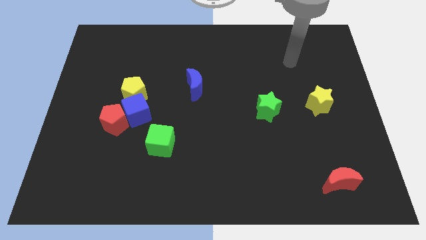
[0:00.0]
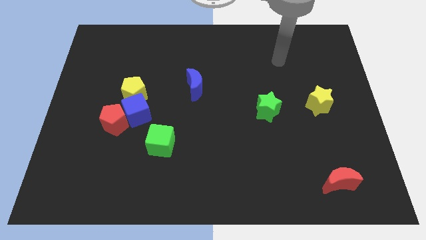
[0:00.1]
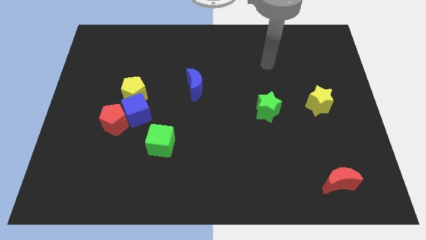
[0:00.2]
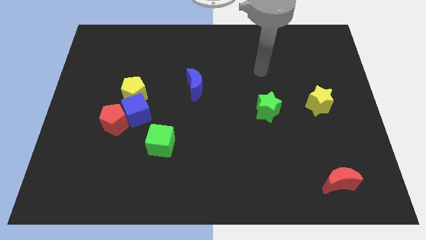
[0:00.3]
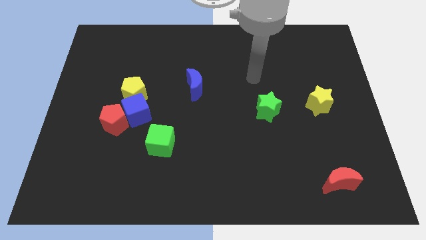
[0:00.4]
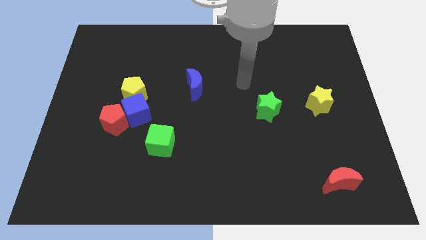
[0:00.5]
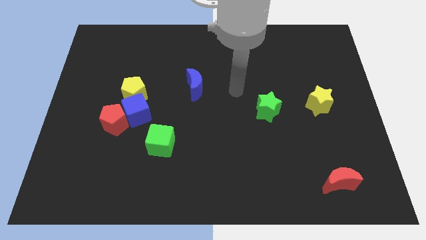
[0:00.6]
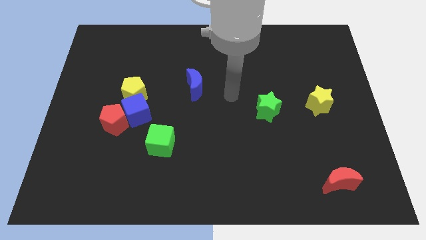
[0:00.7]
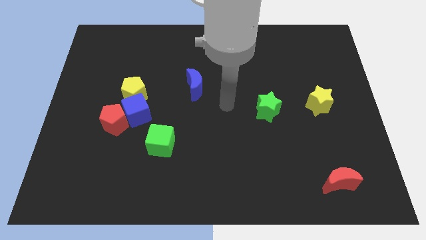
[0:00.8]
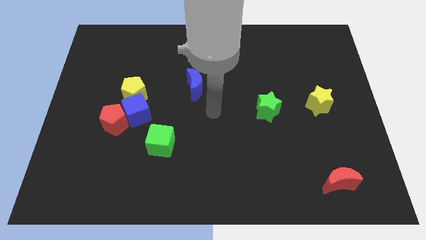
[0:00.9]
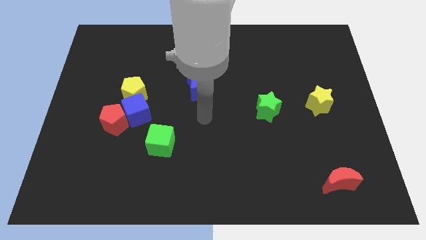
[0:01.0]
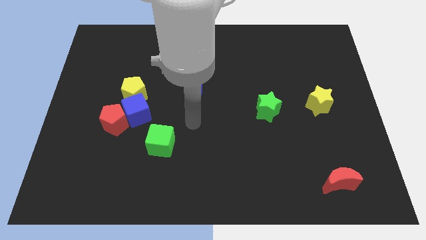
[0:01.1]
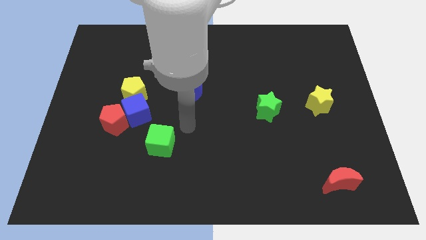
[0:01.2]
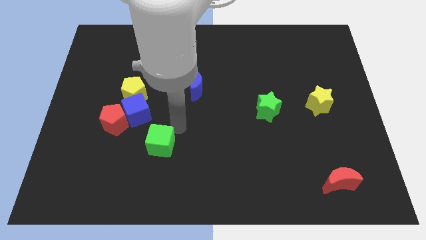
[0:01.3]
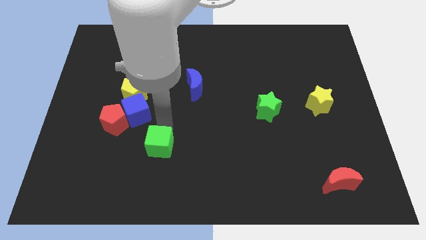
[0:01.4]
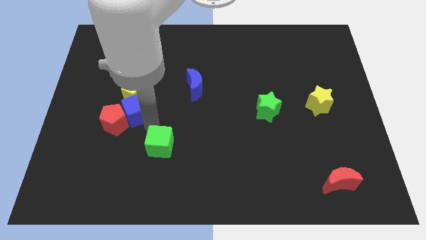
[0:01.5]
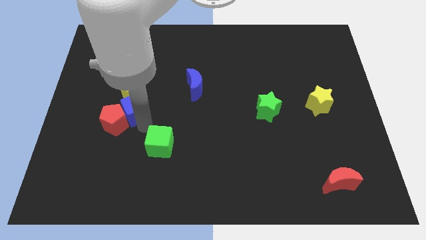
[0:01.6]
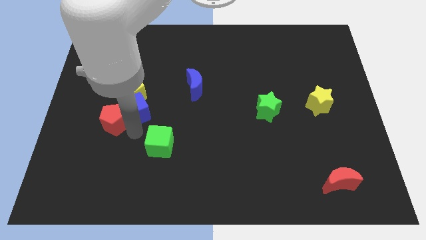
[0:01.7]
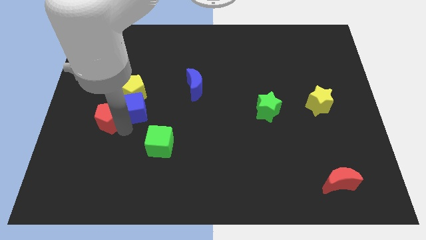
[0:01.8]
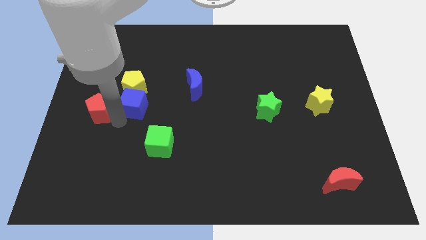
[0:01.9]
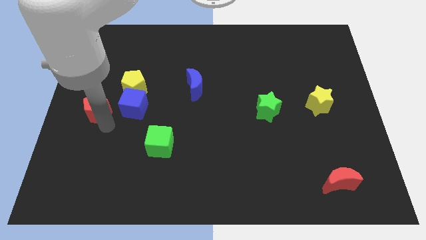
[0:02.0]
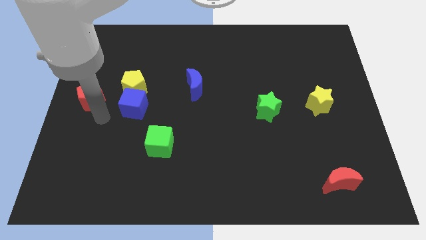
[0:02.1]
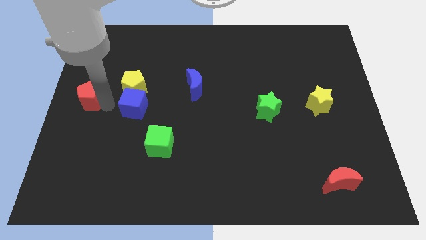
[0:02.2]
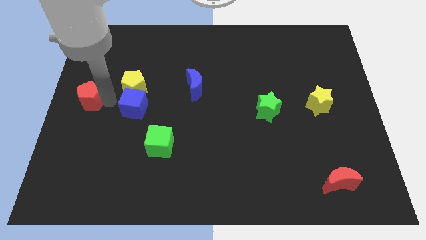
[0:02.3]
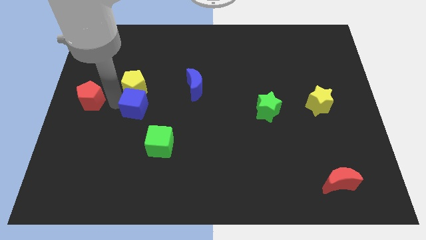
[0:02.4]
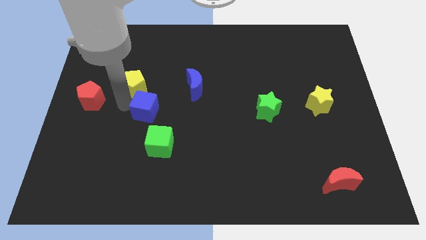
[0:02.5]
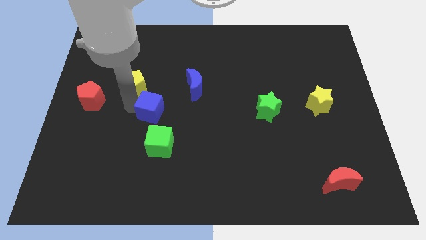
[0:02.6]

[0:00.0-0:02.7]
separate the blue cube from the red pentagon and yellow pentagon

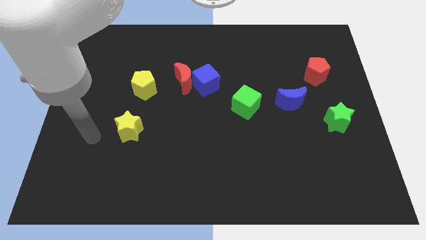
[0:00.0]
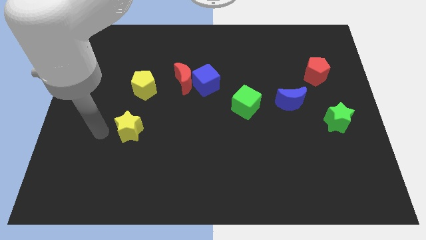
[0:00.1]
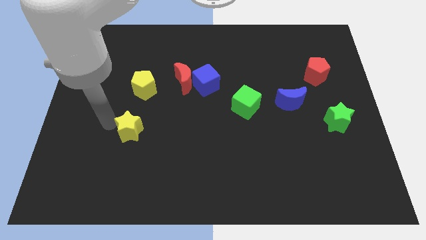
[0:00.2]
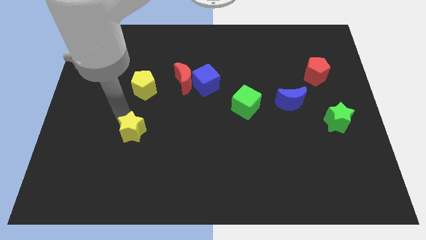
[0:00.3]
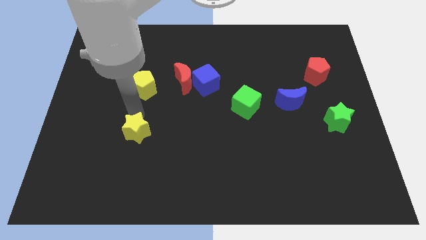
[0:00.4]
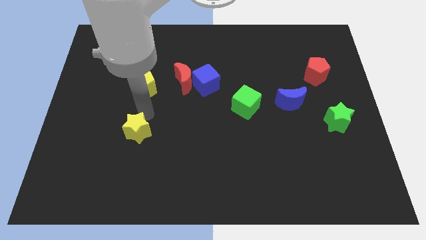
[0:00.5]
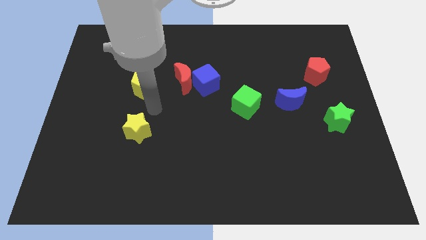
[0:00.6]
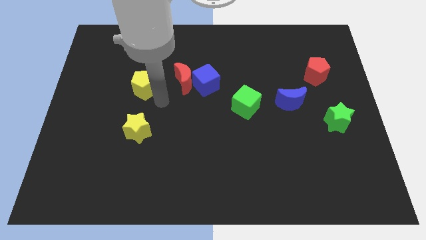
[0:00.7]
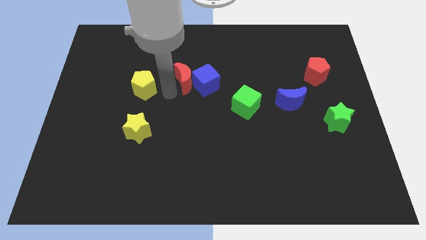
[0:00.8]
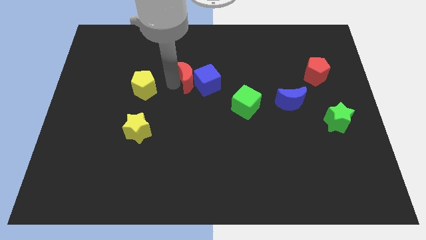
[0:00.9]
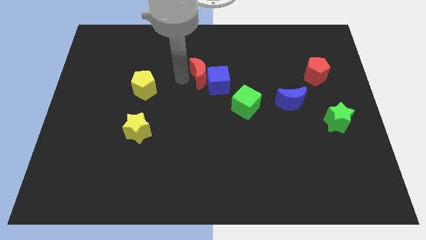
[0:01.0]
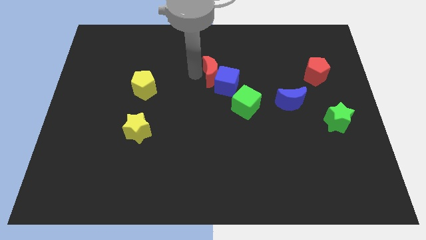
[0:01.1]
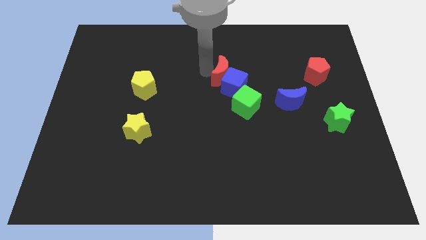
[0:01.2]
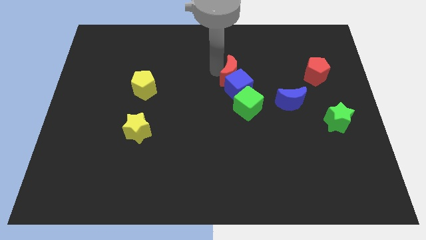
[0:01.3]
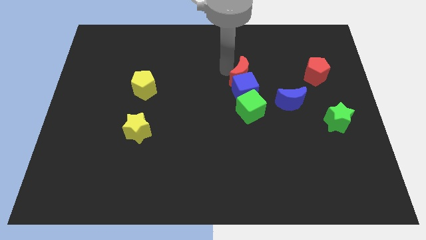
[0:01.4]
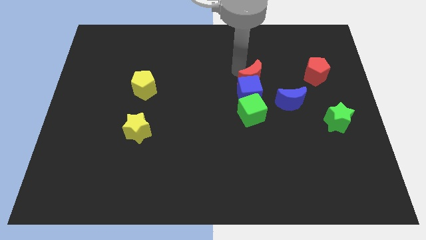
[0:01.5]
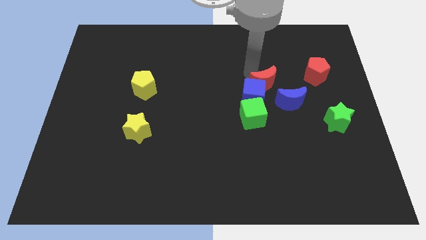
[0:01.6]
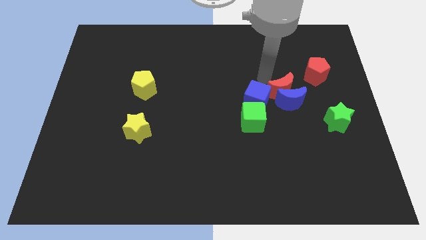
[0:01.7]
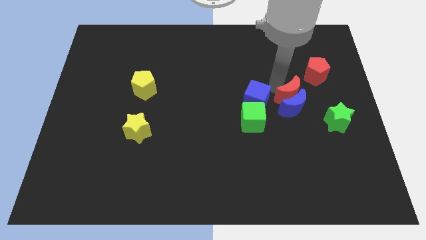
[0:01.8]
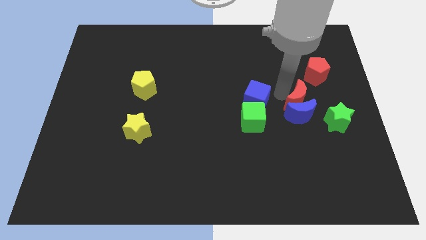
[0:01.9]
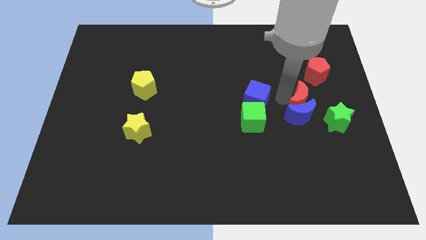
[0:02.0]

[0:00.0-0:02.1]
separate the blue cube from the red moon

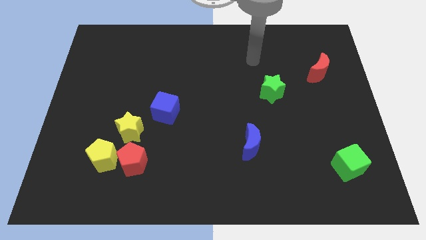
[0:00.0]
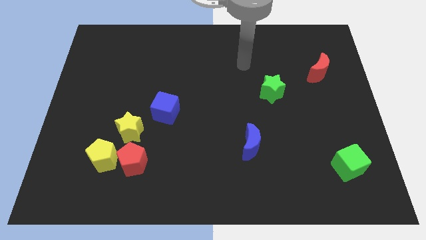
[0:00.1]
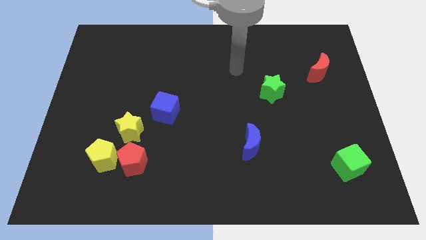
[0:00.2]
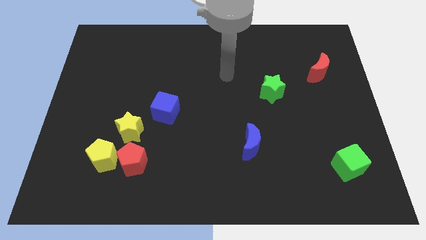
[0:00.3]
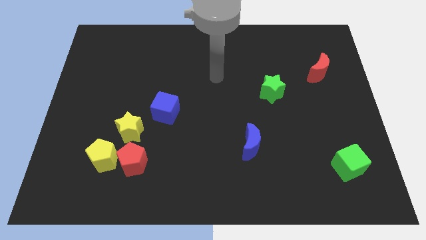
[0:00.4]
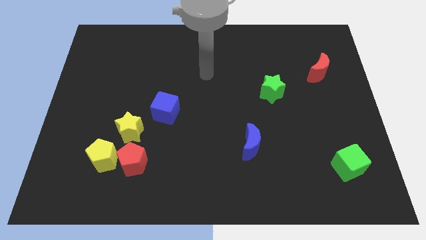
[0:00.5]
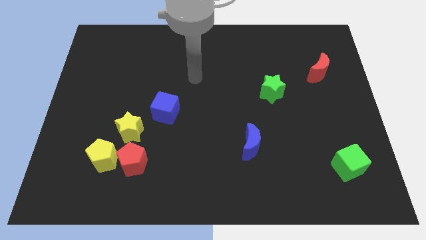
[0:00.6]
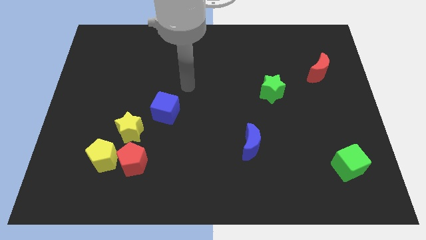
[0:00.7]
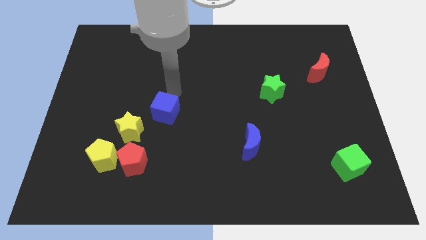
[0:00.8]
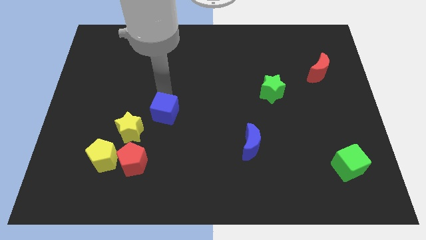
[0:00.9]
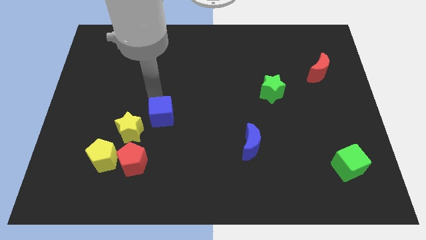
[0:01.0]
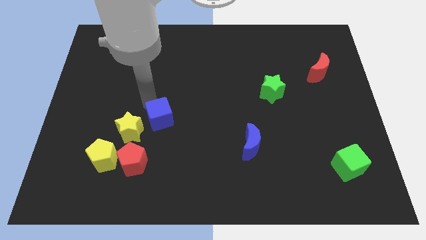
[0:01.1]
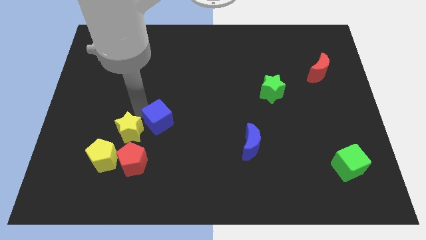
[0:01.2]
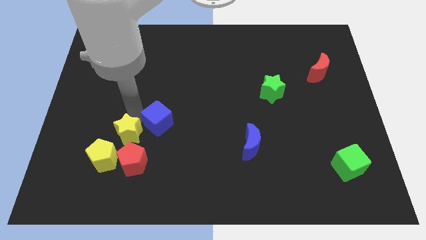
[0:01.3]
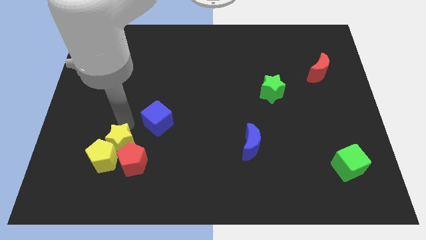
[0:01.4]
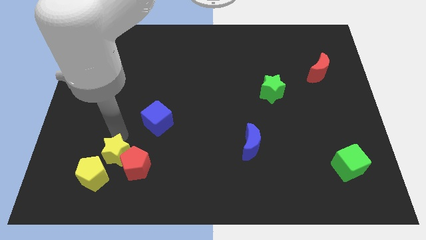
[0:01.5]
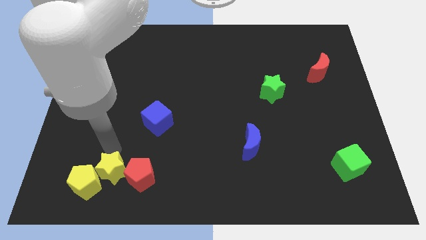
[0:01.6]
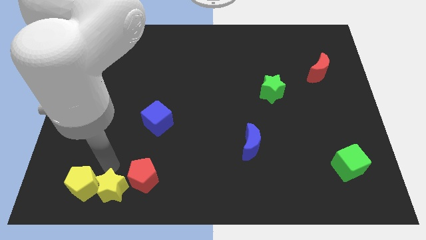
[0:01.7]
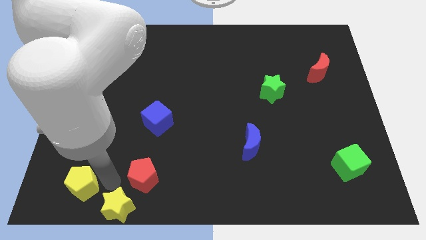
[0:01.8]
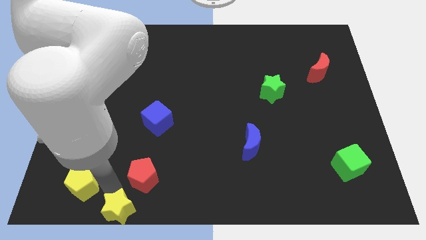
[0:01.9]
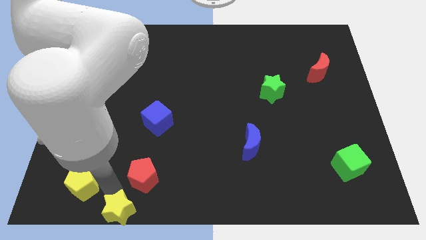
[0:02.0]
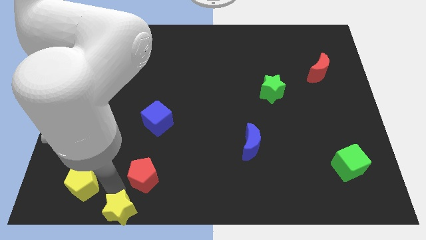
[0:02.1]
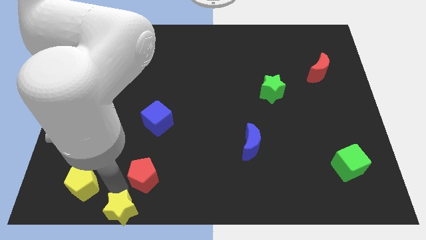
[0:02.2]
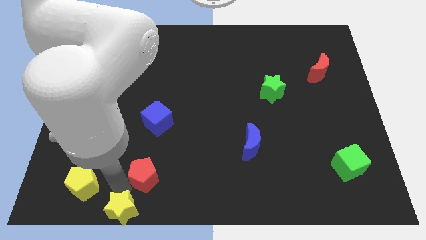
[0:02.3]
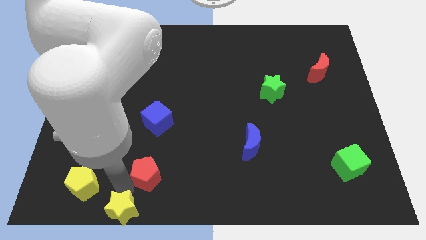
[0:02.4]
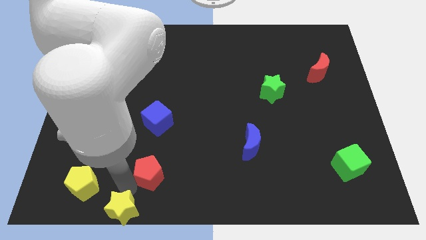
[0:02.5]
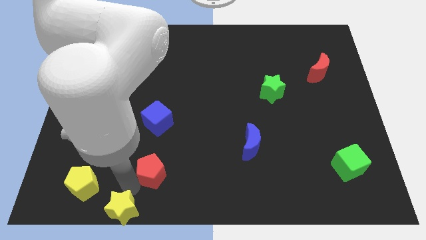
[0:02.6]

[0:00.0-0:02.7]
pull the red pentagon apart from the yellow pentagon and yellow star

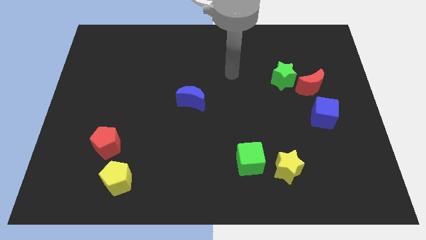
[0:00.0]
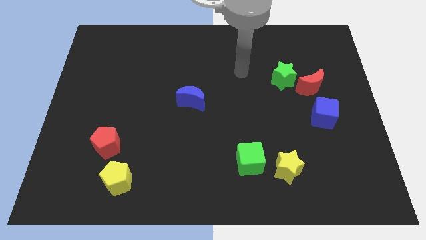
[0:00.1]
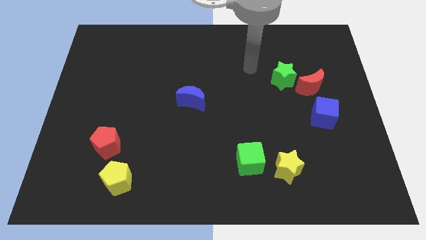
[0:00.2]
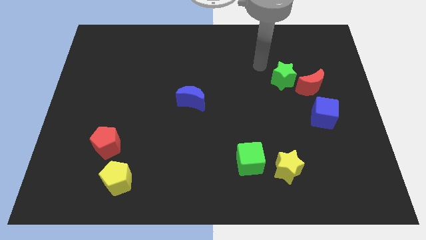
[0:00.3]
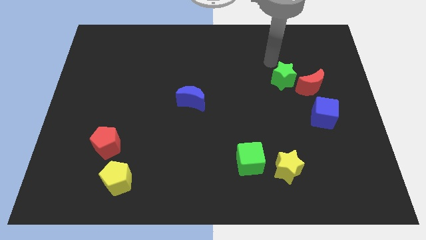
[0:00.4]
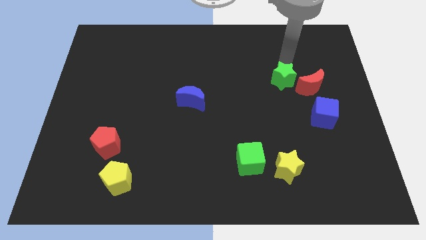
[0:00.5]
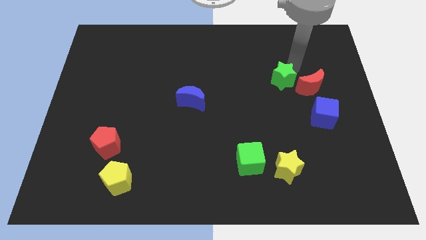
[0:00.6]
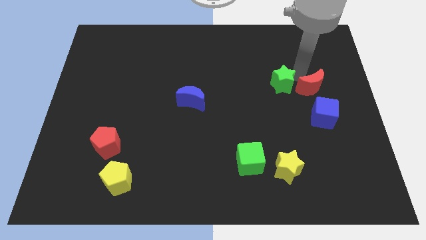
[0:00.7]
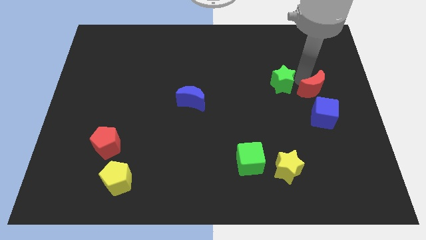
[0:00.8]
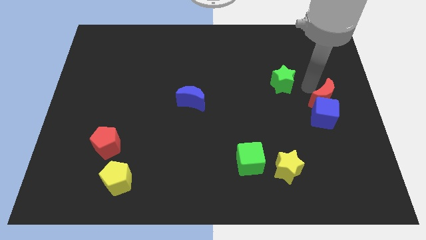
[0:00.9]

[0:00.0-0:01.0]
pull the green star apart from the red moon

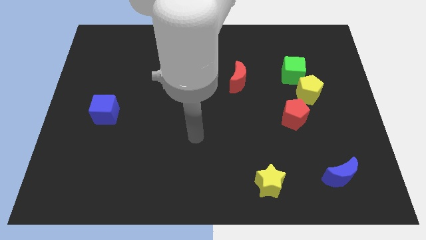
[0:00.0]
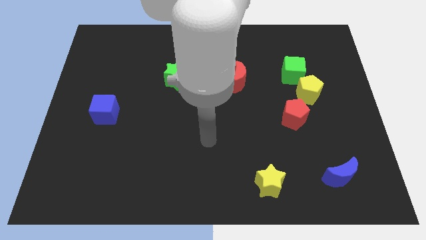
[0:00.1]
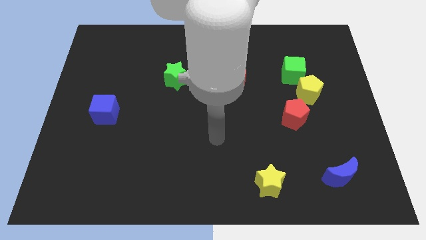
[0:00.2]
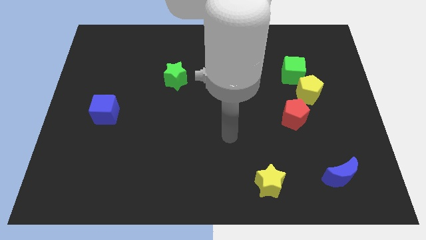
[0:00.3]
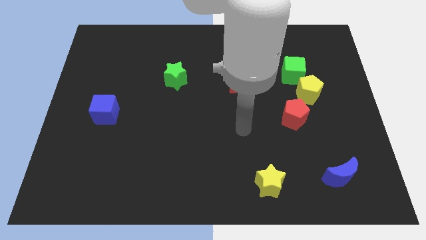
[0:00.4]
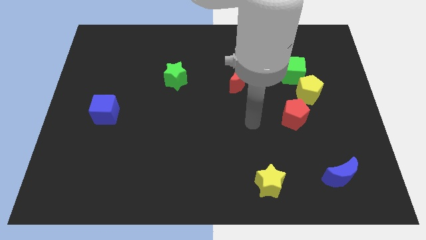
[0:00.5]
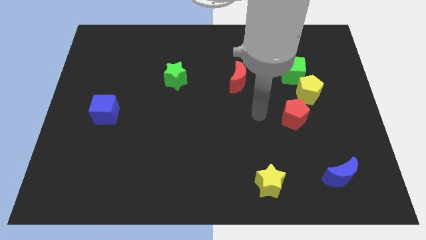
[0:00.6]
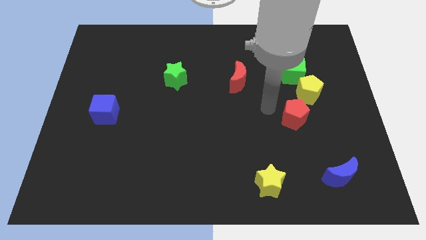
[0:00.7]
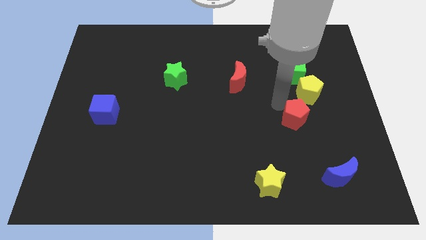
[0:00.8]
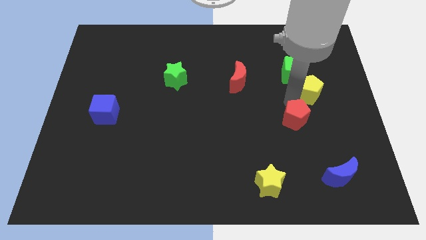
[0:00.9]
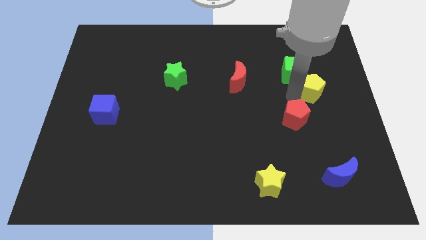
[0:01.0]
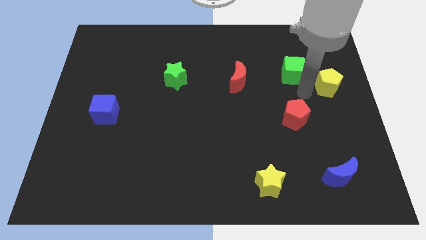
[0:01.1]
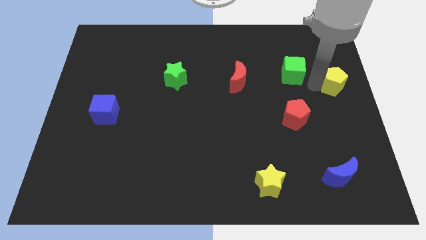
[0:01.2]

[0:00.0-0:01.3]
pull the green cube apart from the yellow pentagon
